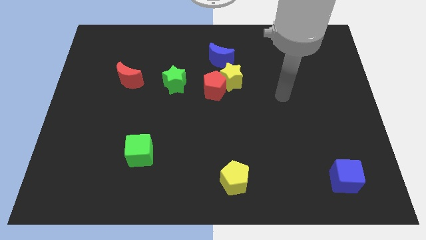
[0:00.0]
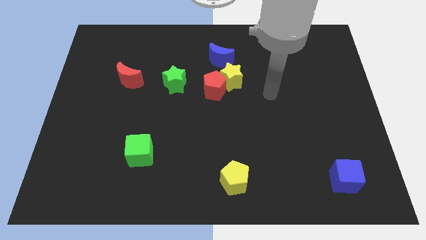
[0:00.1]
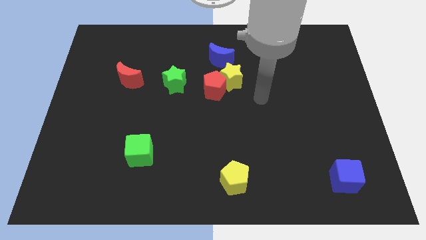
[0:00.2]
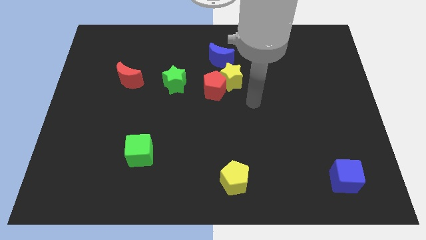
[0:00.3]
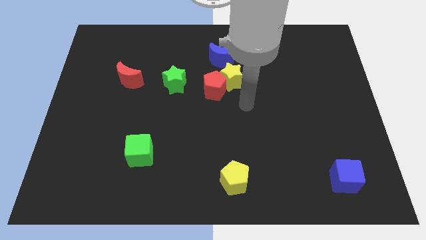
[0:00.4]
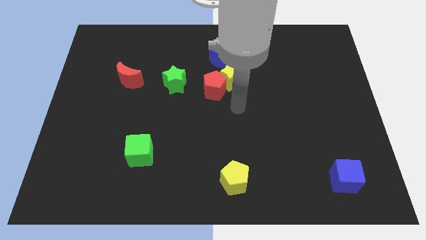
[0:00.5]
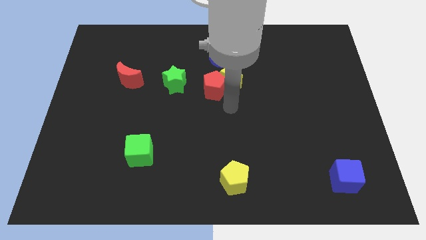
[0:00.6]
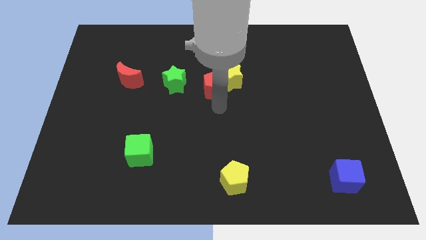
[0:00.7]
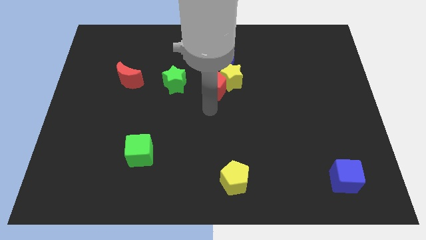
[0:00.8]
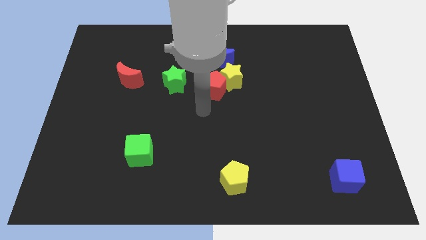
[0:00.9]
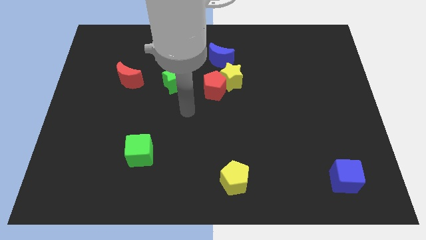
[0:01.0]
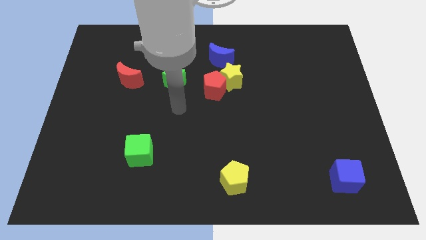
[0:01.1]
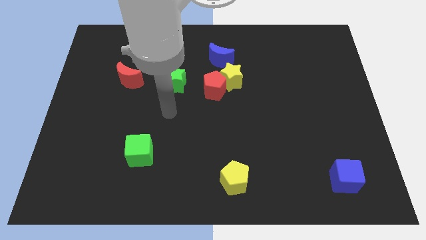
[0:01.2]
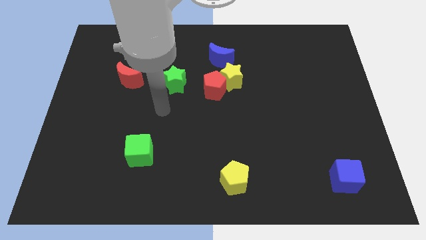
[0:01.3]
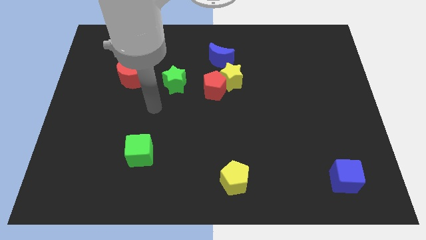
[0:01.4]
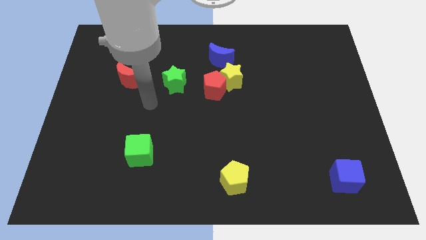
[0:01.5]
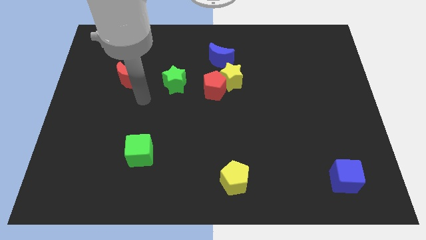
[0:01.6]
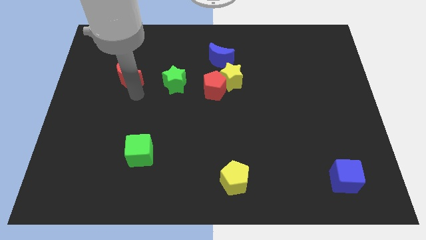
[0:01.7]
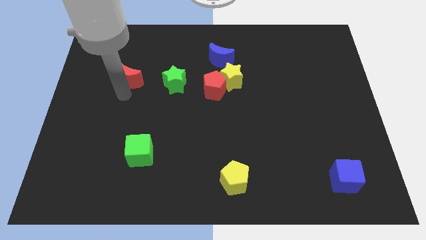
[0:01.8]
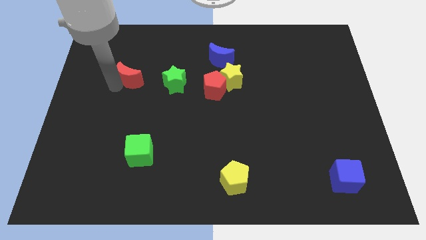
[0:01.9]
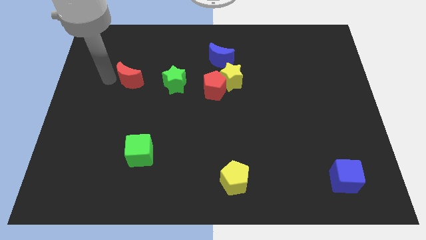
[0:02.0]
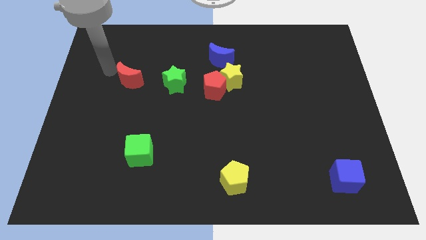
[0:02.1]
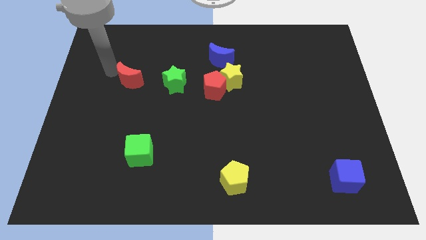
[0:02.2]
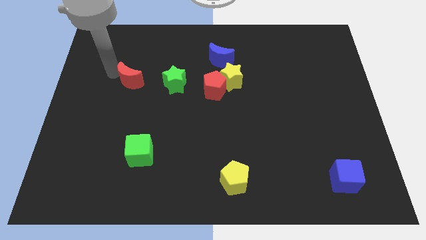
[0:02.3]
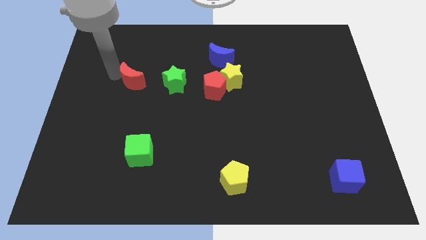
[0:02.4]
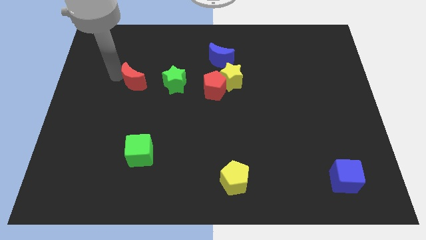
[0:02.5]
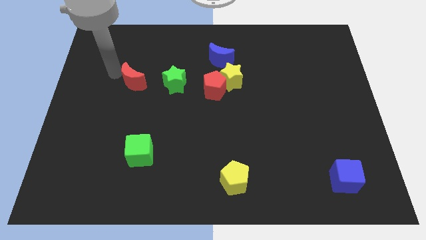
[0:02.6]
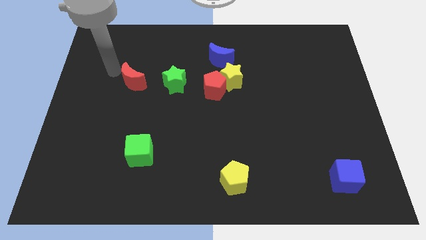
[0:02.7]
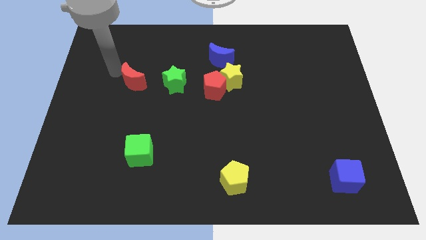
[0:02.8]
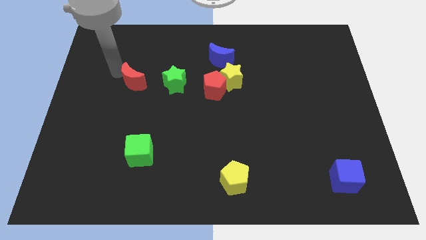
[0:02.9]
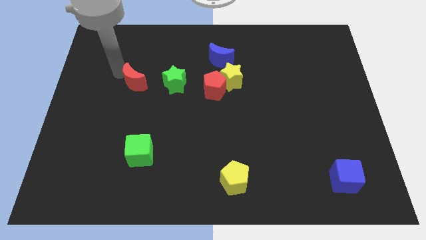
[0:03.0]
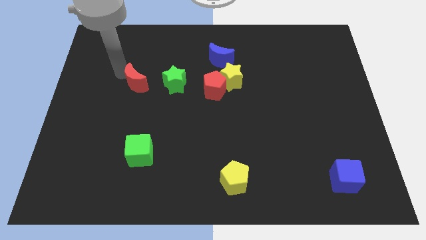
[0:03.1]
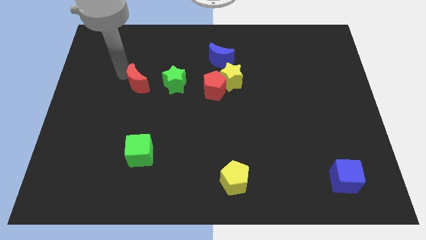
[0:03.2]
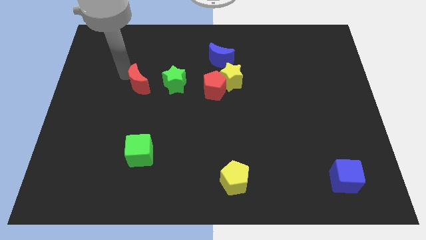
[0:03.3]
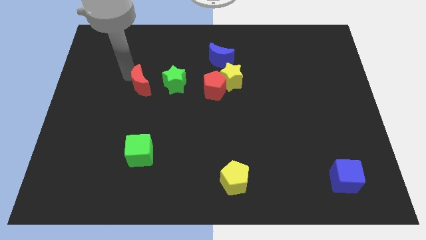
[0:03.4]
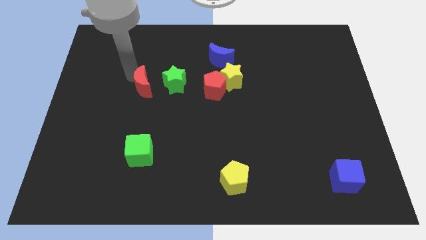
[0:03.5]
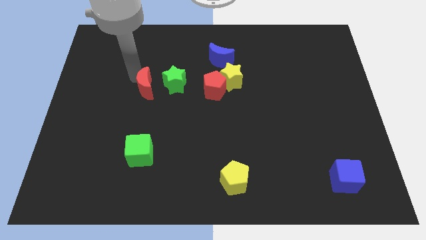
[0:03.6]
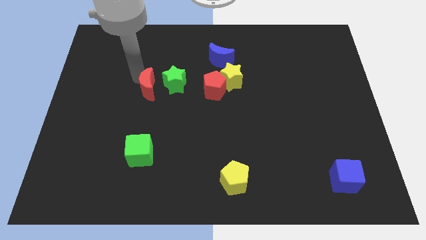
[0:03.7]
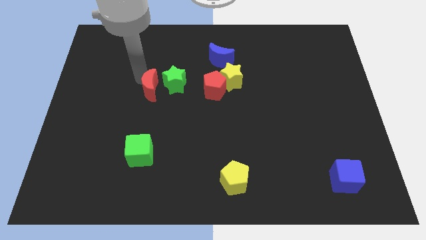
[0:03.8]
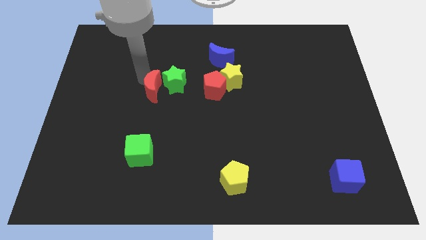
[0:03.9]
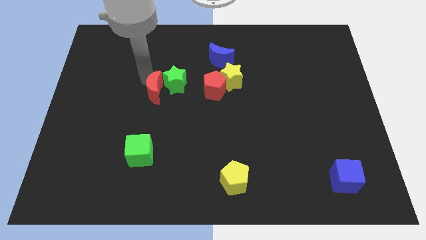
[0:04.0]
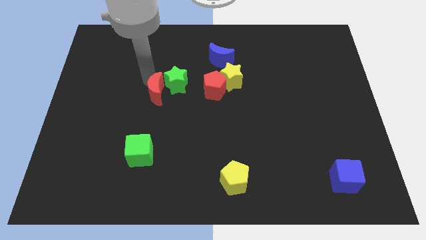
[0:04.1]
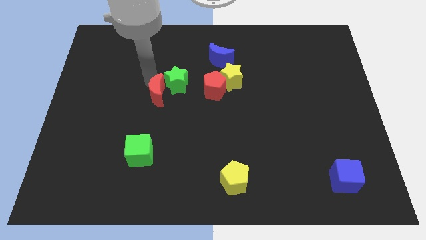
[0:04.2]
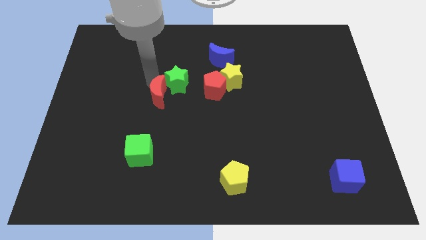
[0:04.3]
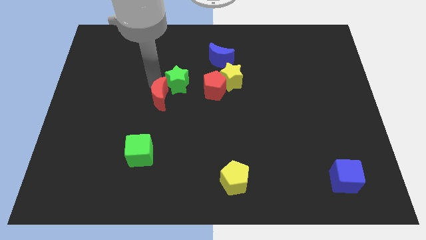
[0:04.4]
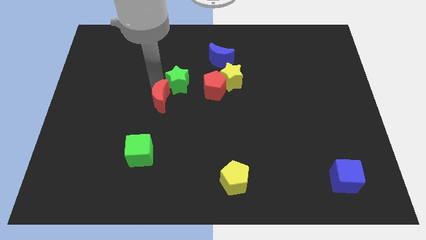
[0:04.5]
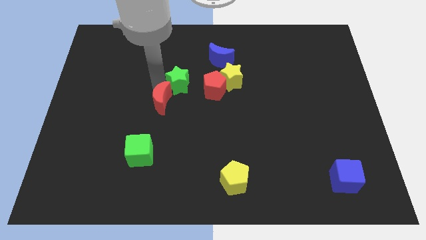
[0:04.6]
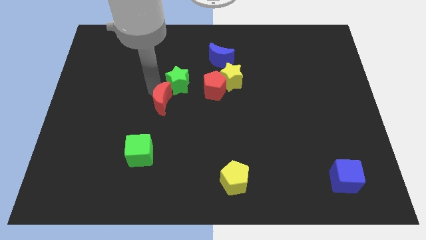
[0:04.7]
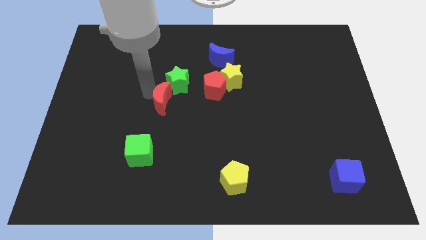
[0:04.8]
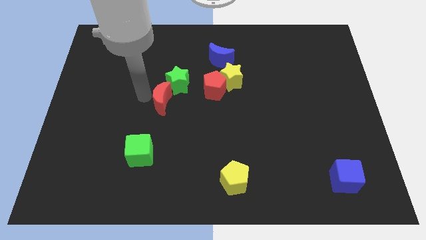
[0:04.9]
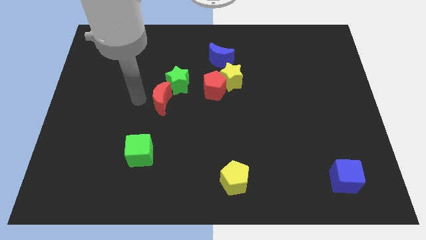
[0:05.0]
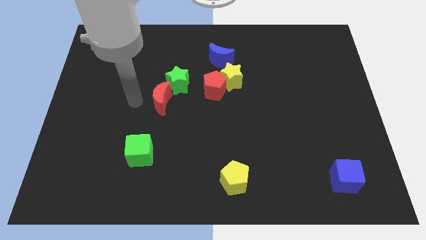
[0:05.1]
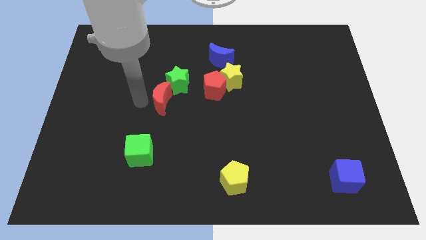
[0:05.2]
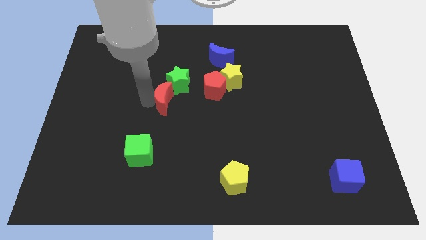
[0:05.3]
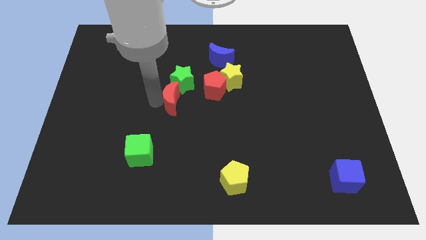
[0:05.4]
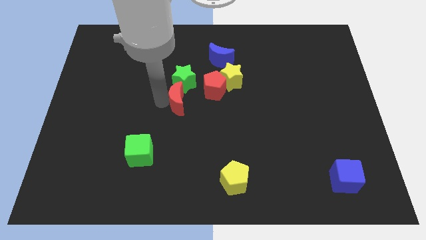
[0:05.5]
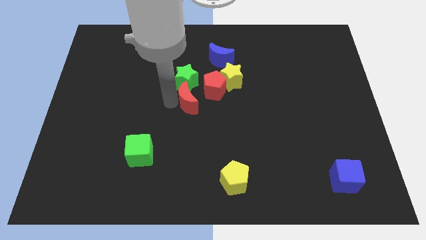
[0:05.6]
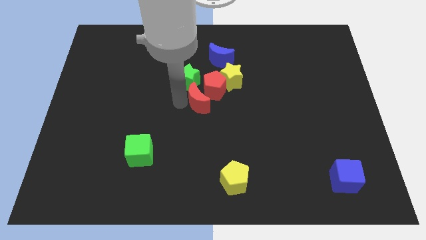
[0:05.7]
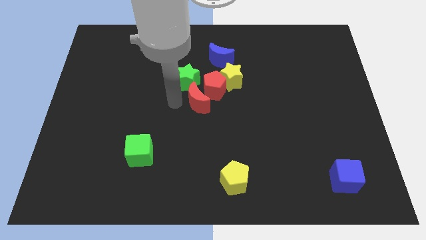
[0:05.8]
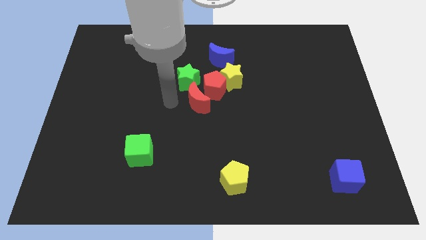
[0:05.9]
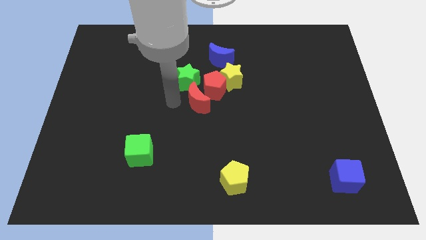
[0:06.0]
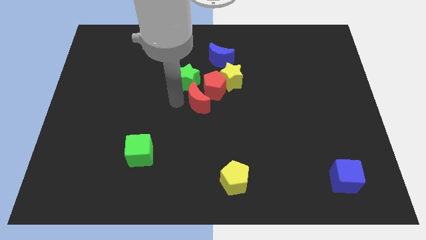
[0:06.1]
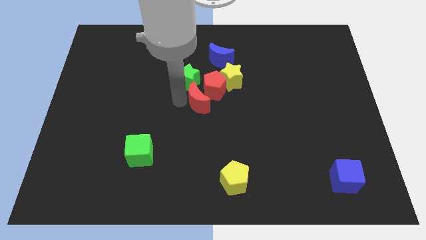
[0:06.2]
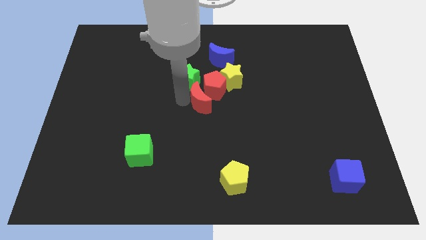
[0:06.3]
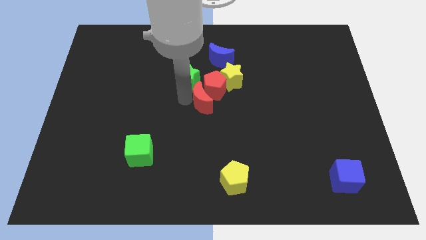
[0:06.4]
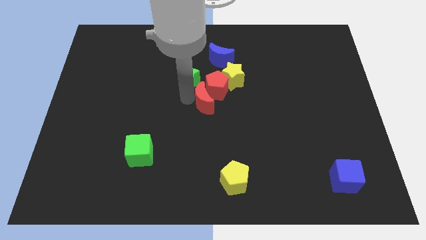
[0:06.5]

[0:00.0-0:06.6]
put the red moon to the bottom of the blue moon

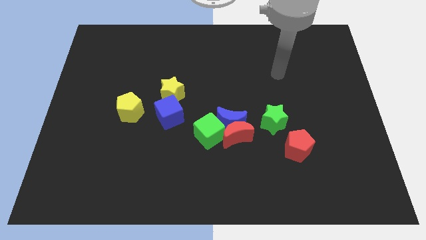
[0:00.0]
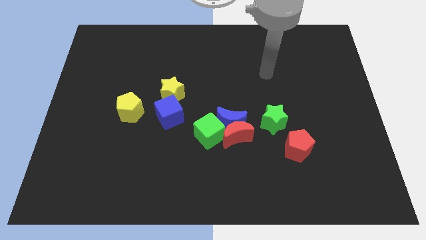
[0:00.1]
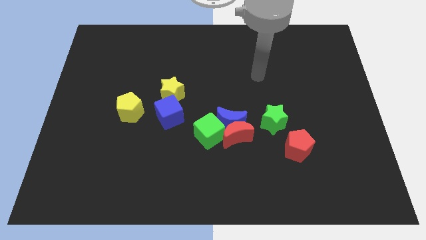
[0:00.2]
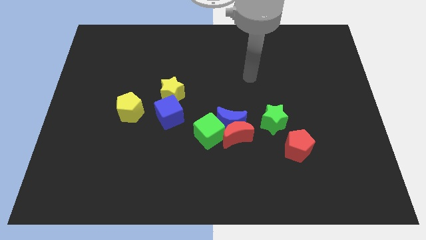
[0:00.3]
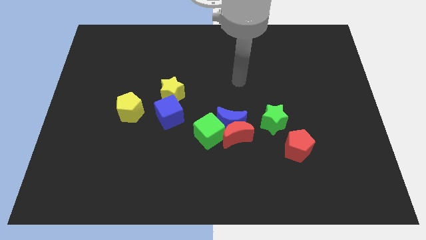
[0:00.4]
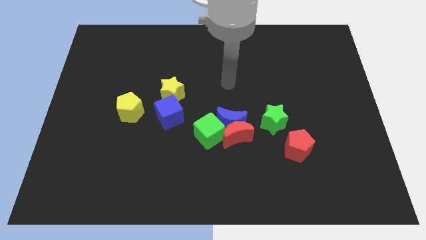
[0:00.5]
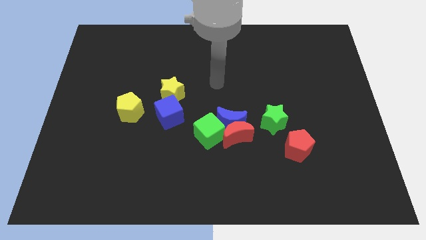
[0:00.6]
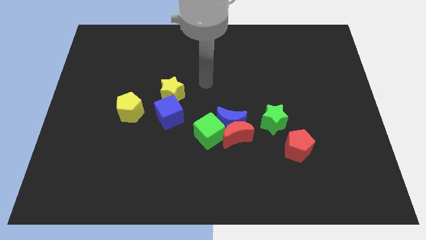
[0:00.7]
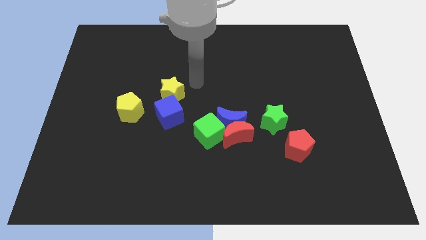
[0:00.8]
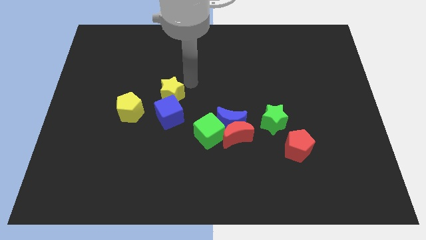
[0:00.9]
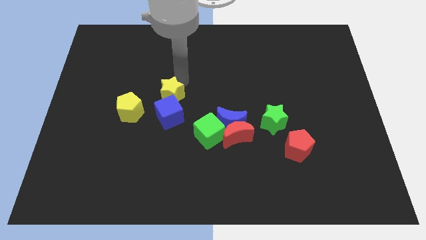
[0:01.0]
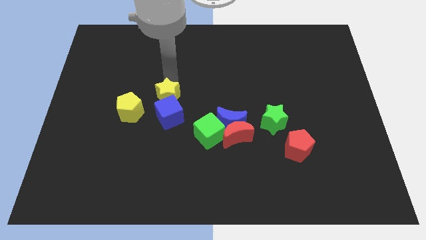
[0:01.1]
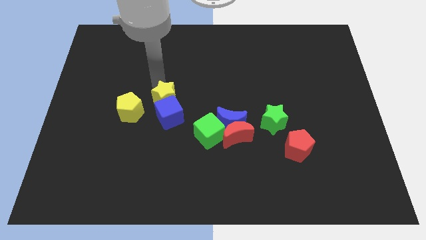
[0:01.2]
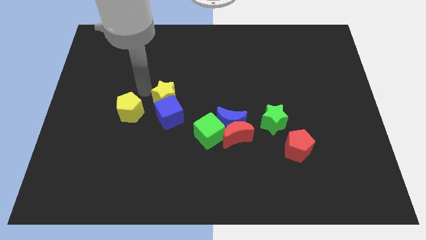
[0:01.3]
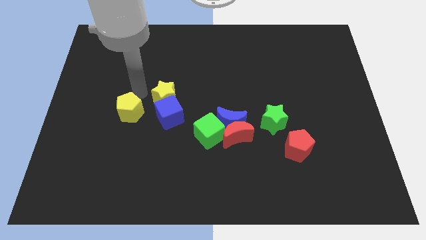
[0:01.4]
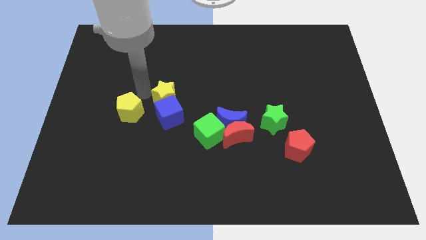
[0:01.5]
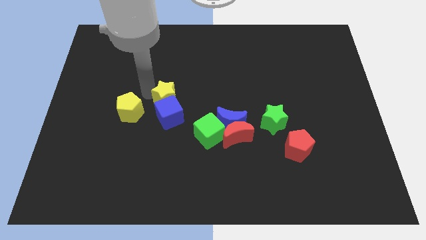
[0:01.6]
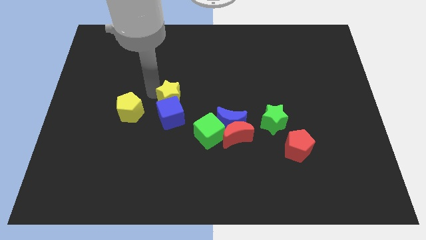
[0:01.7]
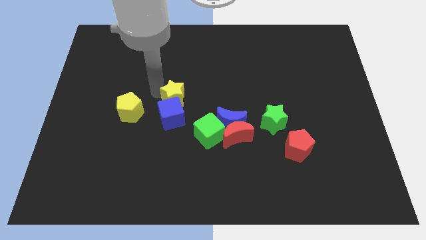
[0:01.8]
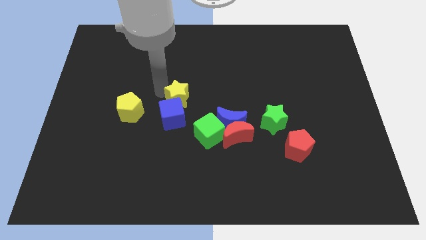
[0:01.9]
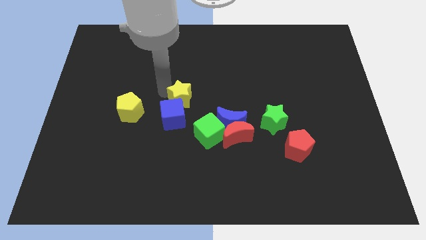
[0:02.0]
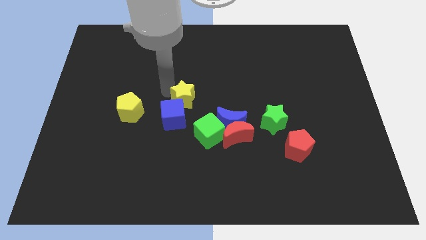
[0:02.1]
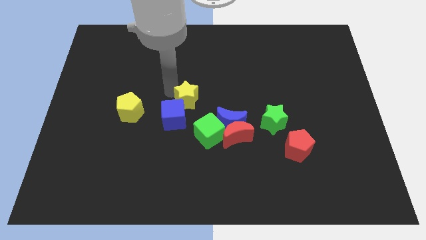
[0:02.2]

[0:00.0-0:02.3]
push the yellow star diagonally up and to the left of the blue moon

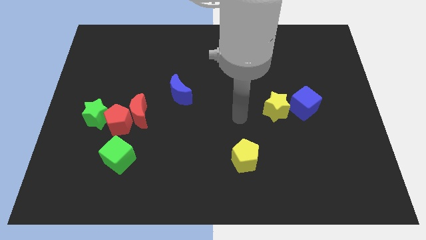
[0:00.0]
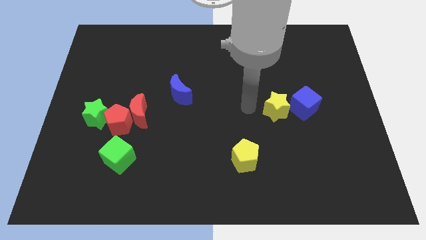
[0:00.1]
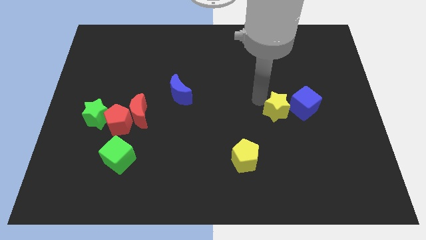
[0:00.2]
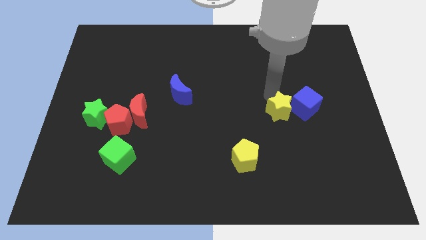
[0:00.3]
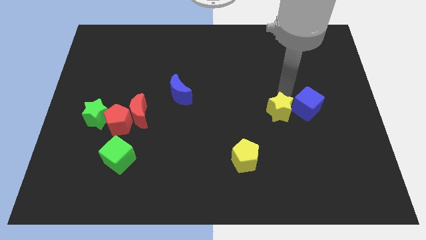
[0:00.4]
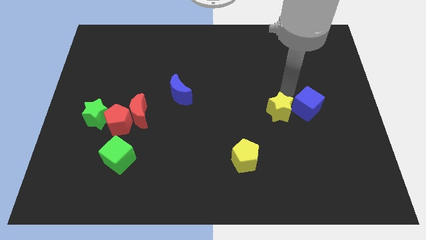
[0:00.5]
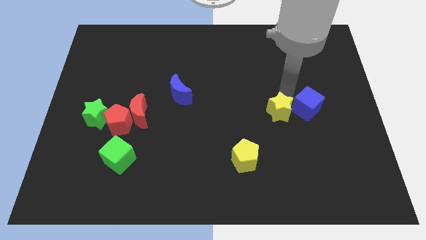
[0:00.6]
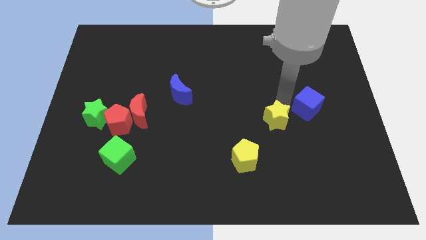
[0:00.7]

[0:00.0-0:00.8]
push the yellow star to the top right side of the yellow pentagon
